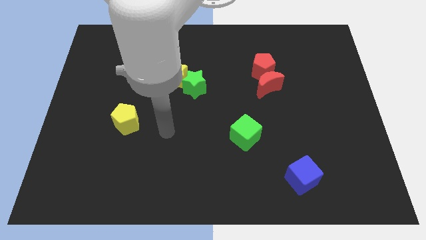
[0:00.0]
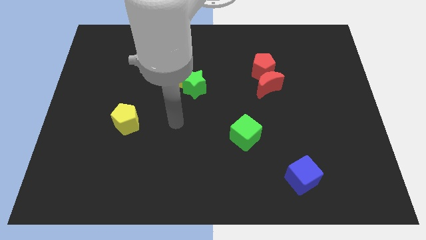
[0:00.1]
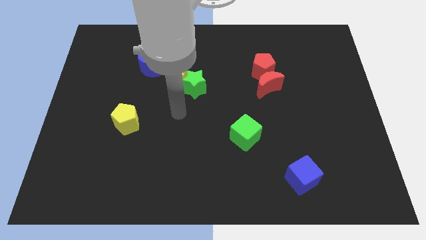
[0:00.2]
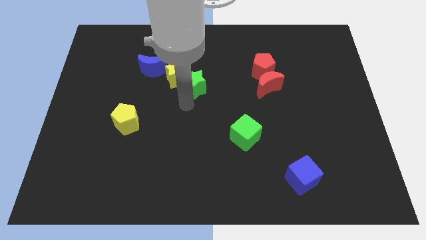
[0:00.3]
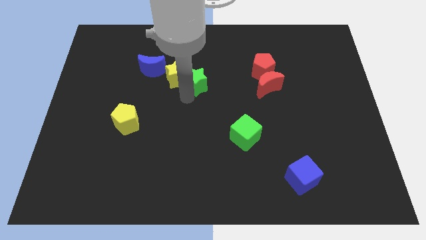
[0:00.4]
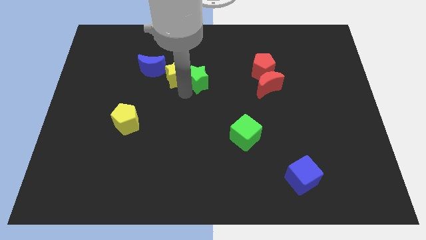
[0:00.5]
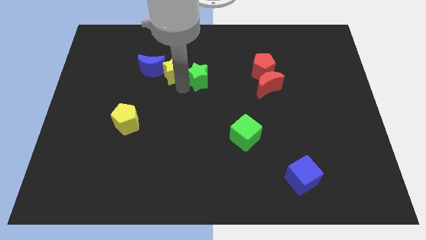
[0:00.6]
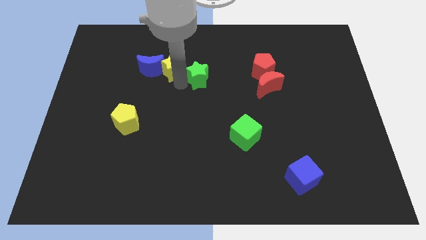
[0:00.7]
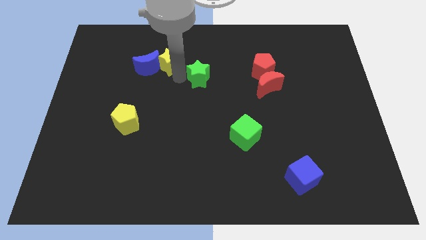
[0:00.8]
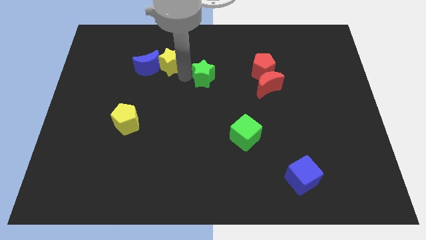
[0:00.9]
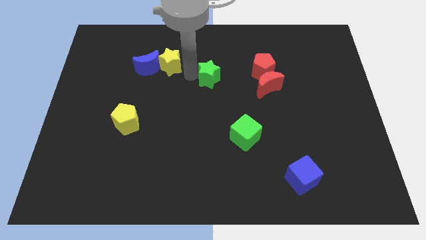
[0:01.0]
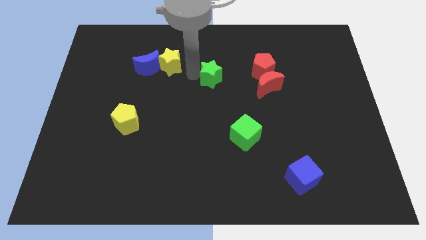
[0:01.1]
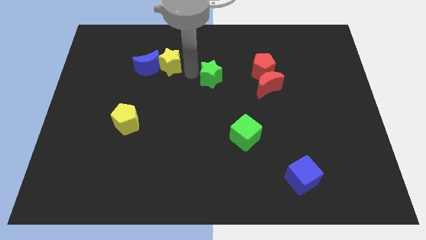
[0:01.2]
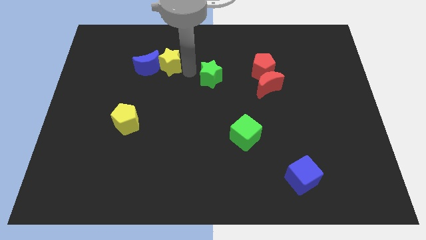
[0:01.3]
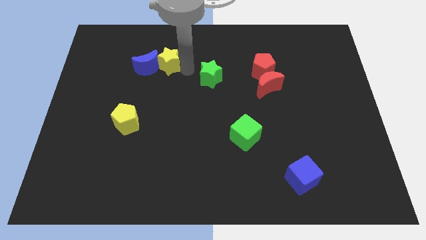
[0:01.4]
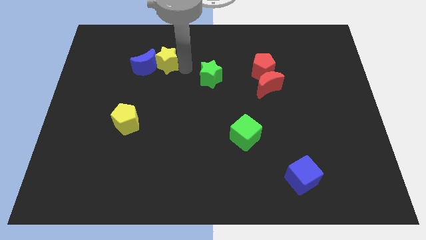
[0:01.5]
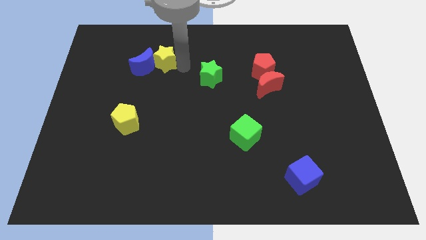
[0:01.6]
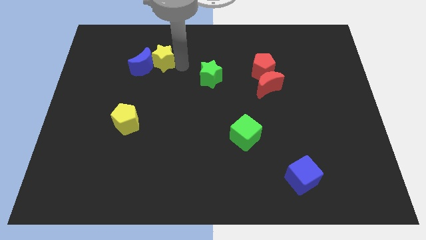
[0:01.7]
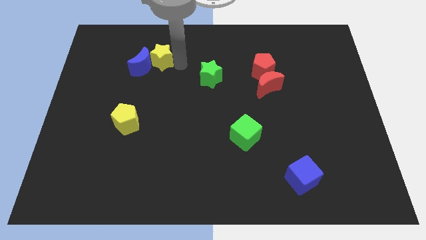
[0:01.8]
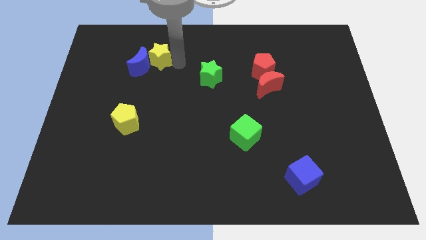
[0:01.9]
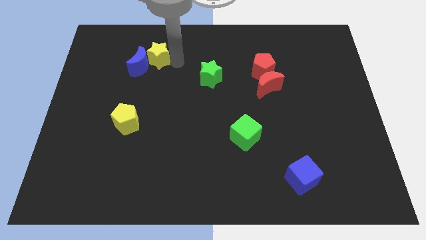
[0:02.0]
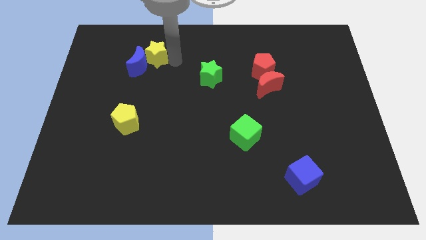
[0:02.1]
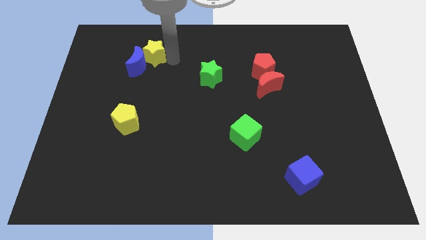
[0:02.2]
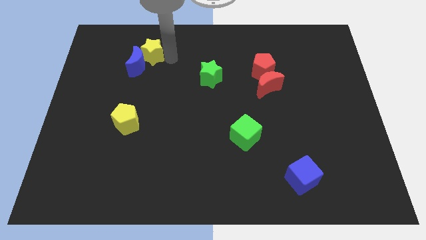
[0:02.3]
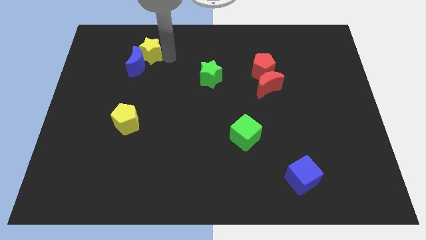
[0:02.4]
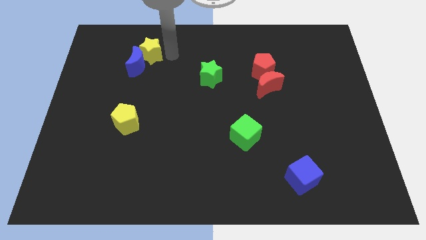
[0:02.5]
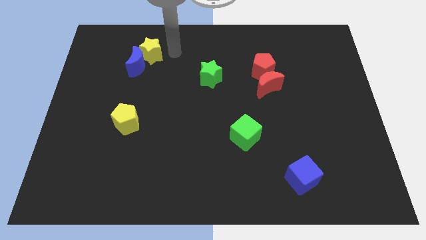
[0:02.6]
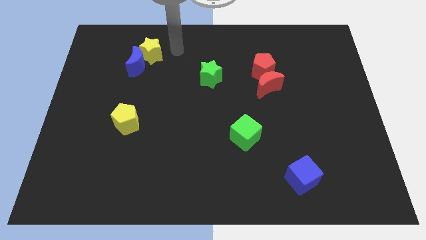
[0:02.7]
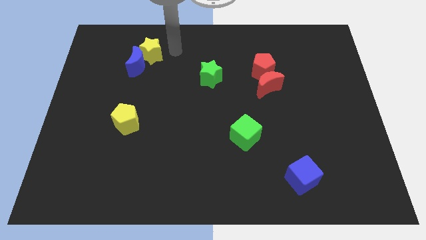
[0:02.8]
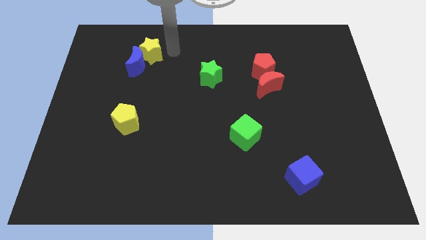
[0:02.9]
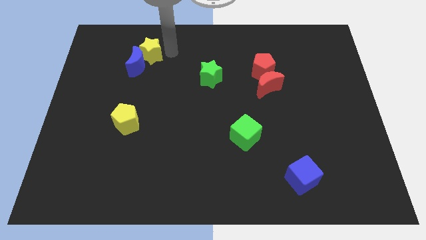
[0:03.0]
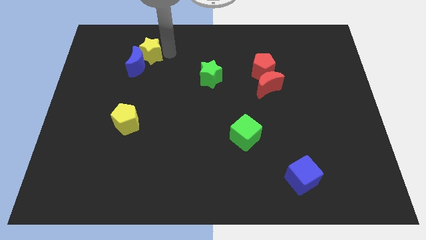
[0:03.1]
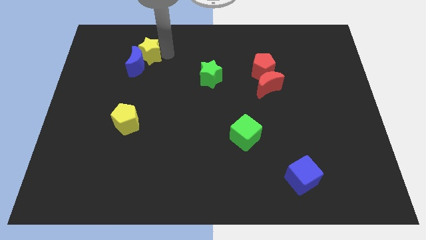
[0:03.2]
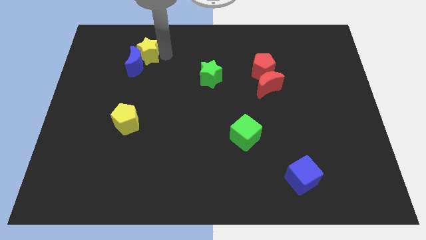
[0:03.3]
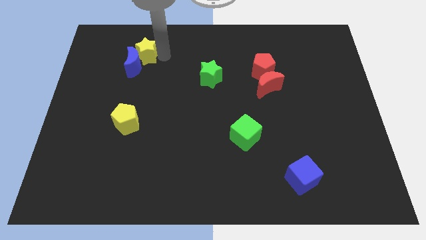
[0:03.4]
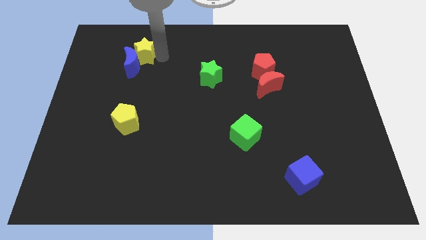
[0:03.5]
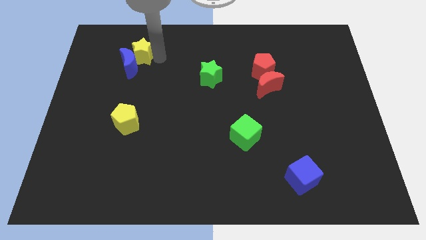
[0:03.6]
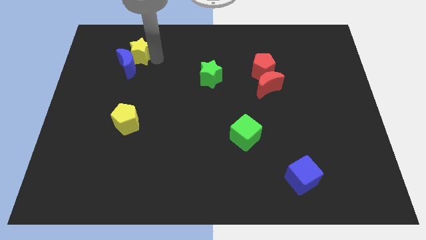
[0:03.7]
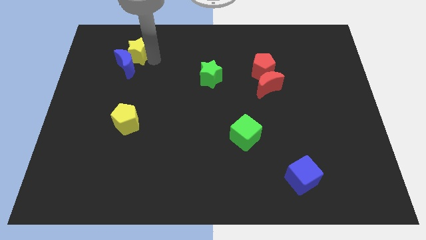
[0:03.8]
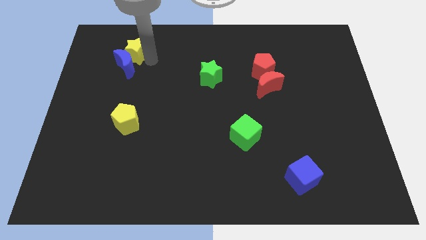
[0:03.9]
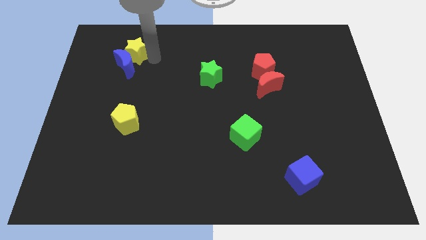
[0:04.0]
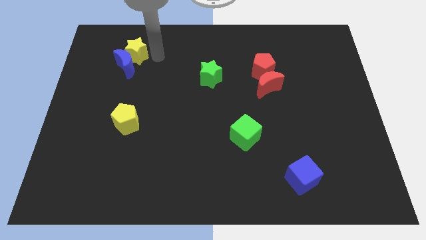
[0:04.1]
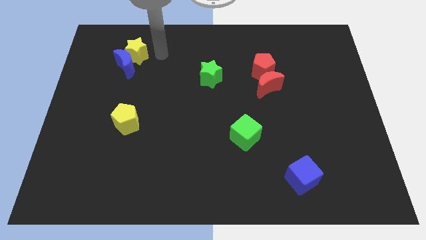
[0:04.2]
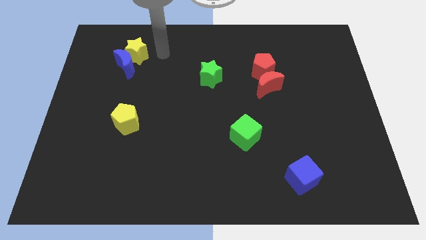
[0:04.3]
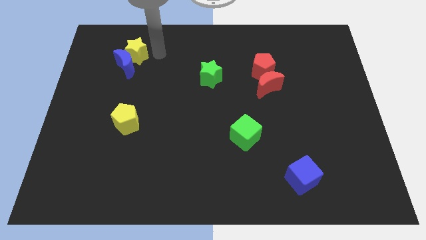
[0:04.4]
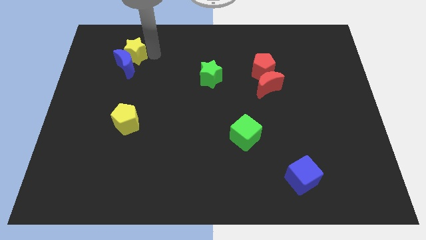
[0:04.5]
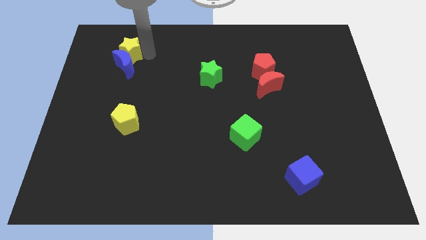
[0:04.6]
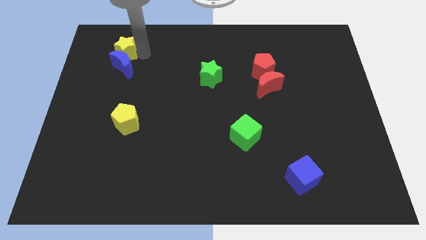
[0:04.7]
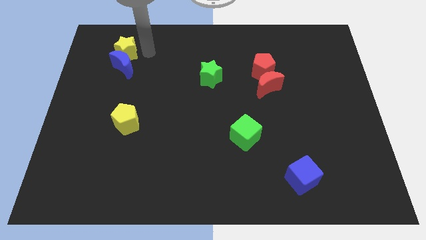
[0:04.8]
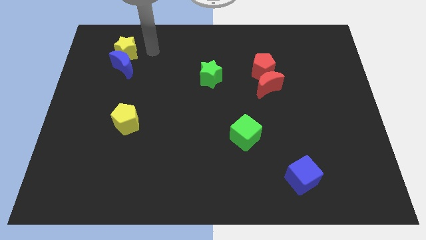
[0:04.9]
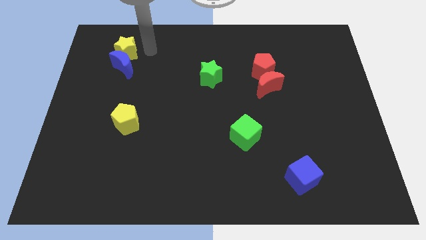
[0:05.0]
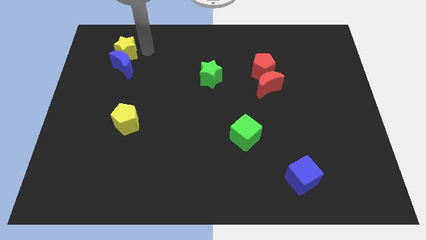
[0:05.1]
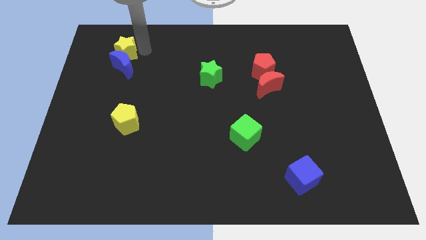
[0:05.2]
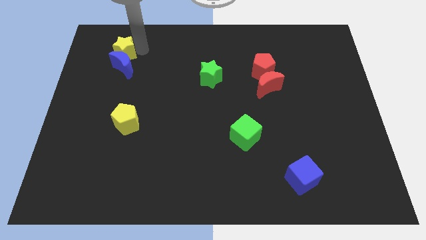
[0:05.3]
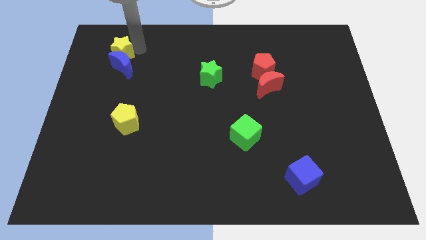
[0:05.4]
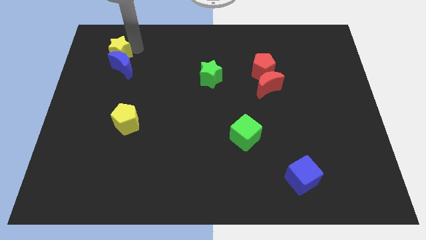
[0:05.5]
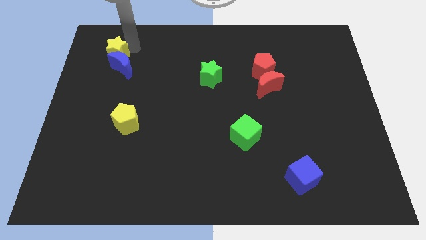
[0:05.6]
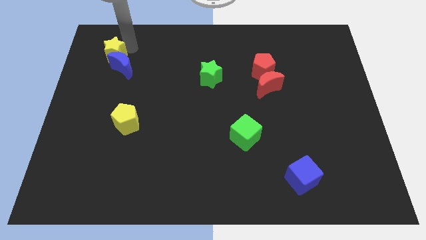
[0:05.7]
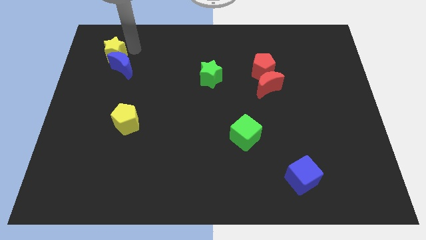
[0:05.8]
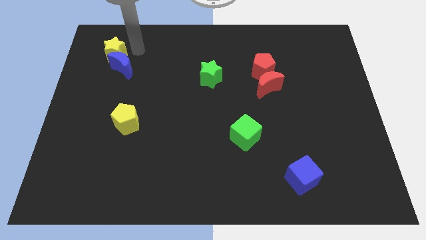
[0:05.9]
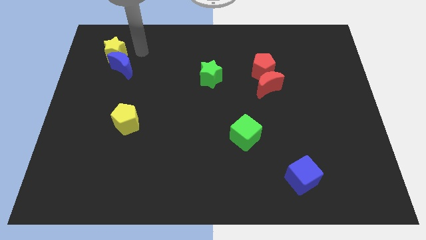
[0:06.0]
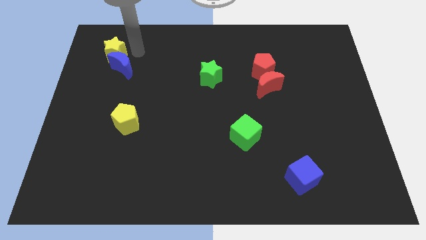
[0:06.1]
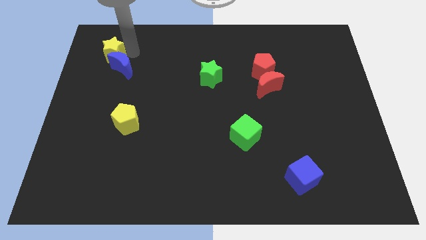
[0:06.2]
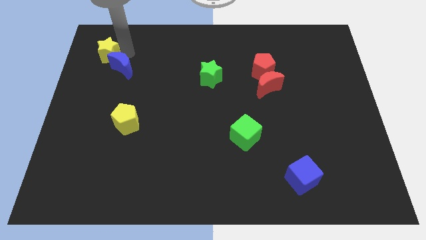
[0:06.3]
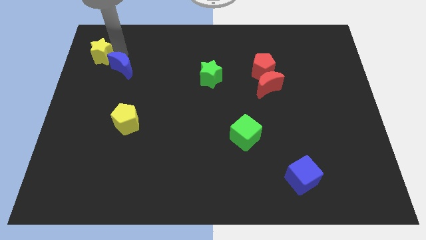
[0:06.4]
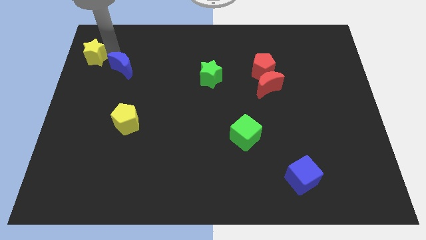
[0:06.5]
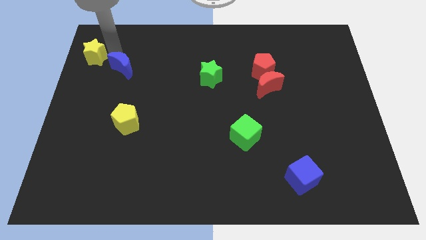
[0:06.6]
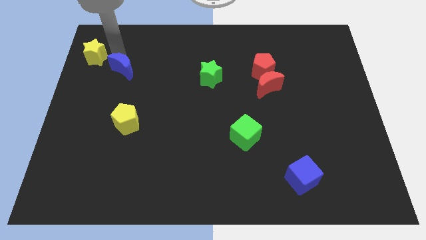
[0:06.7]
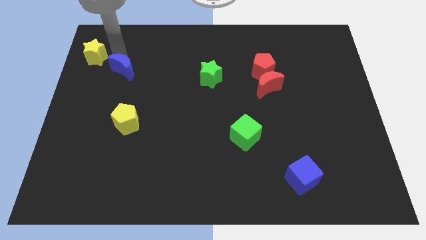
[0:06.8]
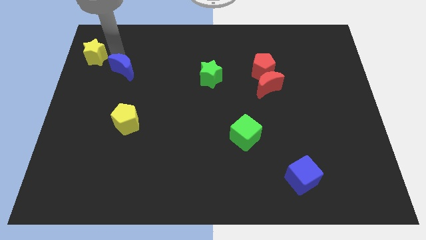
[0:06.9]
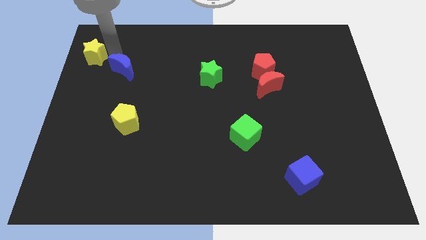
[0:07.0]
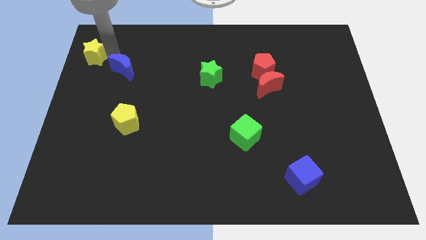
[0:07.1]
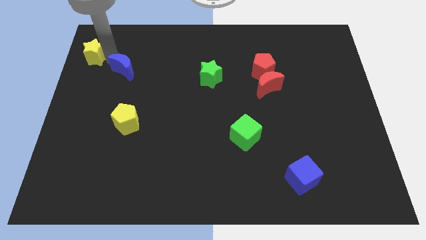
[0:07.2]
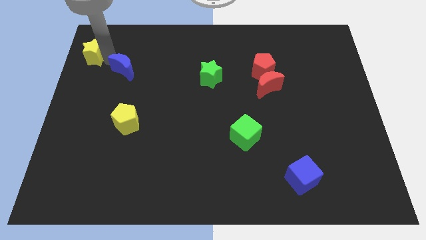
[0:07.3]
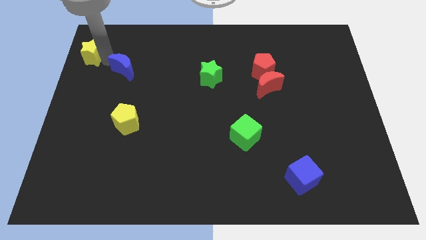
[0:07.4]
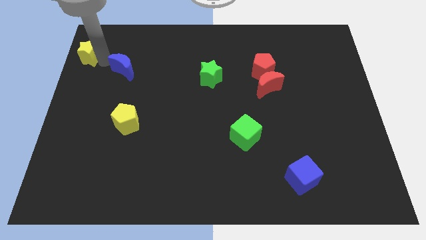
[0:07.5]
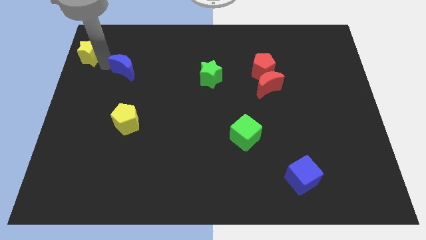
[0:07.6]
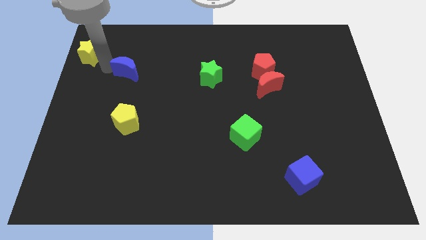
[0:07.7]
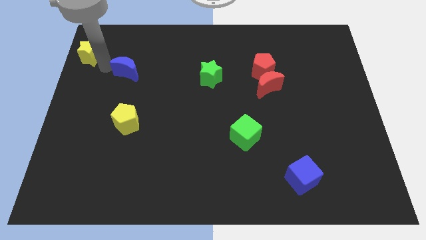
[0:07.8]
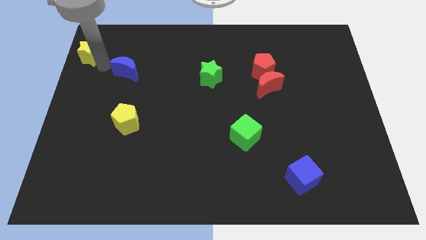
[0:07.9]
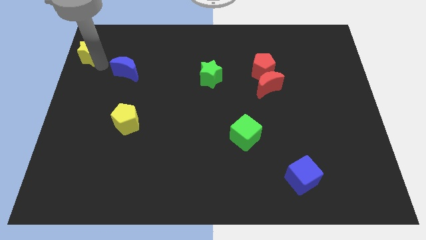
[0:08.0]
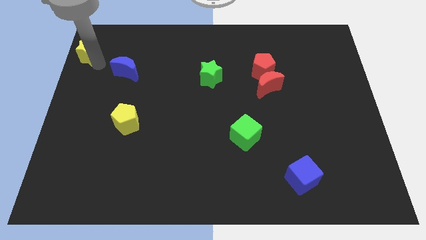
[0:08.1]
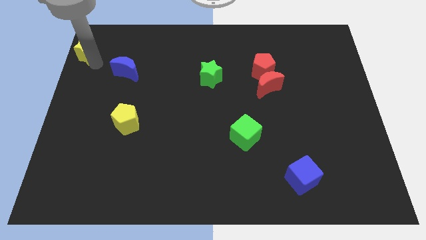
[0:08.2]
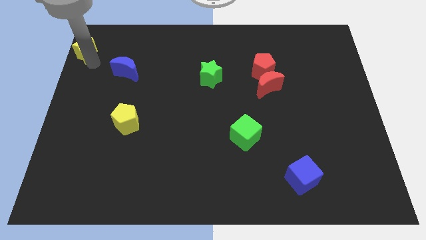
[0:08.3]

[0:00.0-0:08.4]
slide the yellow star to the top left
